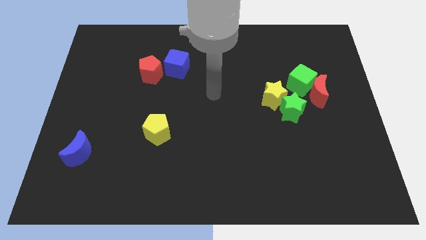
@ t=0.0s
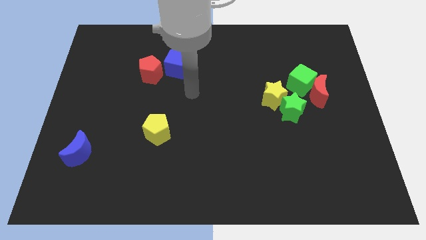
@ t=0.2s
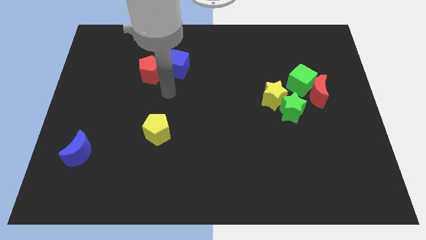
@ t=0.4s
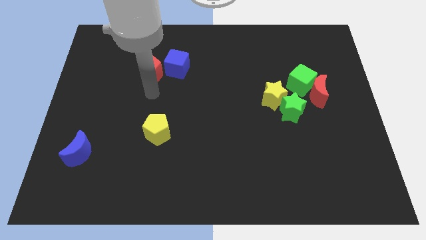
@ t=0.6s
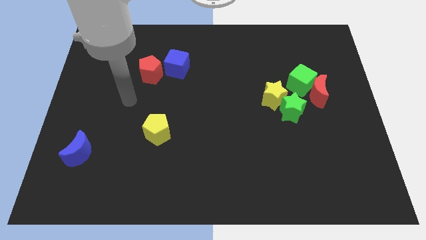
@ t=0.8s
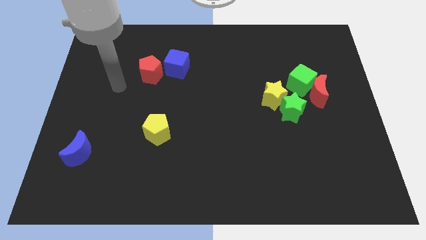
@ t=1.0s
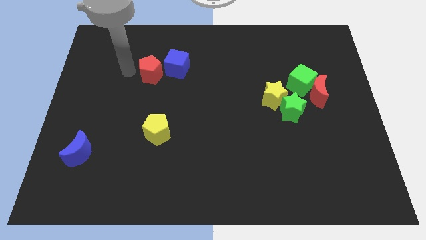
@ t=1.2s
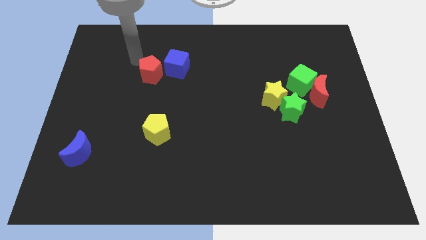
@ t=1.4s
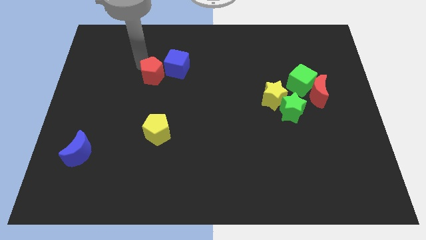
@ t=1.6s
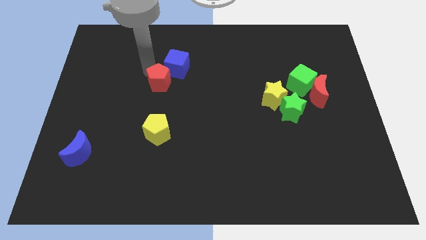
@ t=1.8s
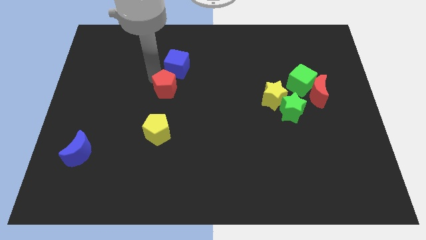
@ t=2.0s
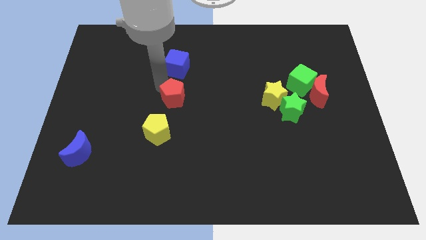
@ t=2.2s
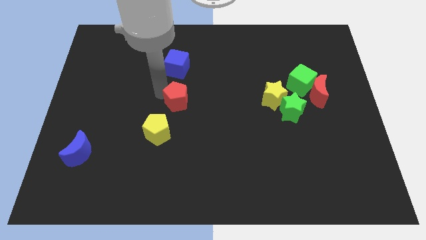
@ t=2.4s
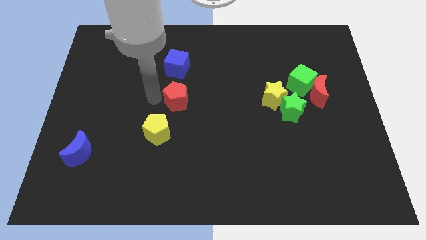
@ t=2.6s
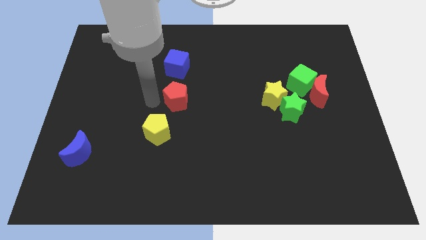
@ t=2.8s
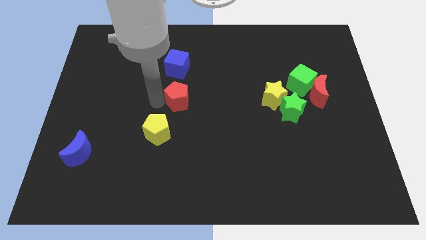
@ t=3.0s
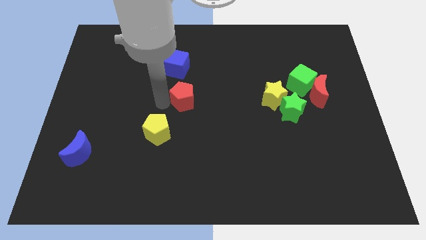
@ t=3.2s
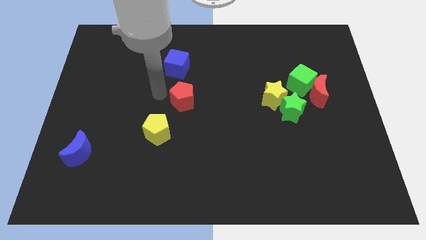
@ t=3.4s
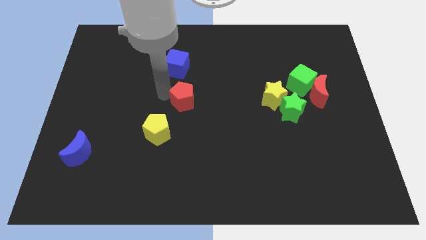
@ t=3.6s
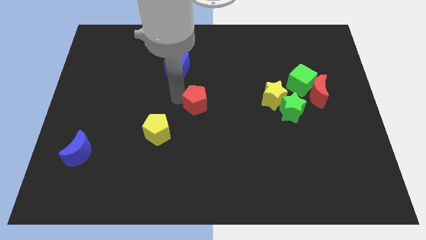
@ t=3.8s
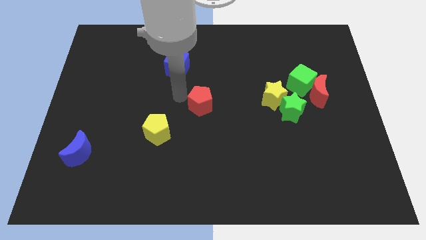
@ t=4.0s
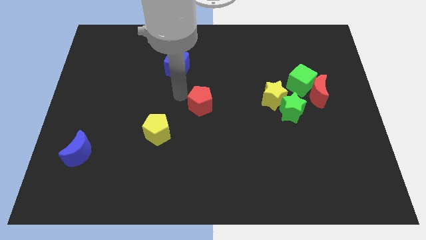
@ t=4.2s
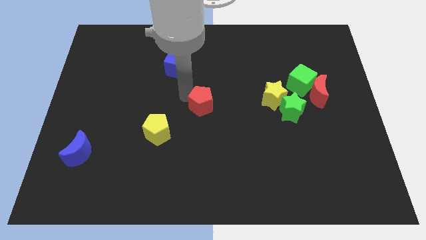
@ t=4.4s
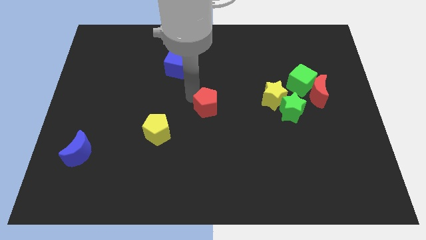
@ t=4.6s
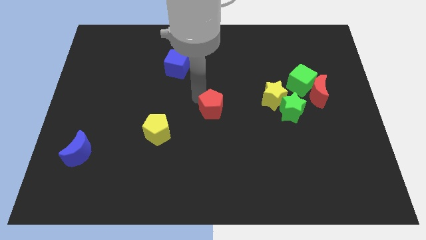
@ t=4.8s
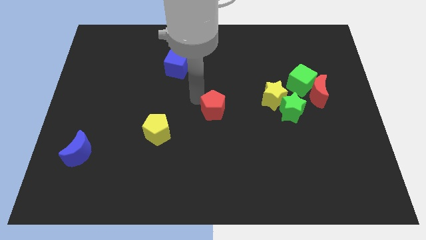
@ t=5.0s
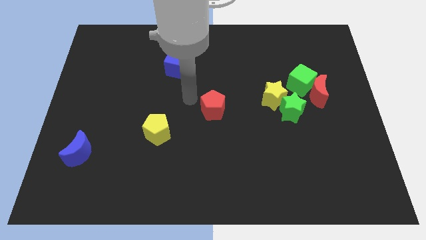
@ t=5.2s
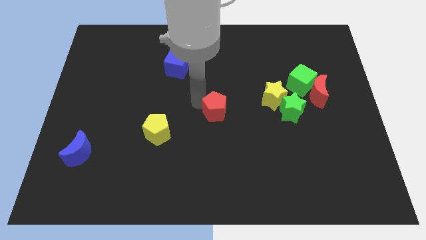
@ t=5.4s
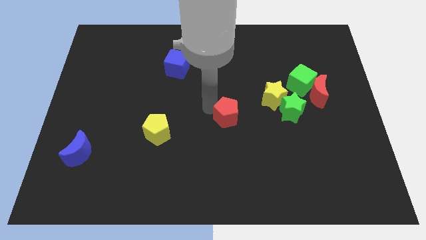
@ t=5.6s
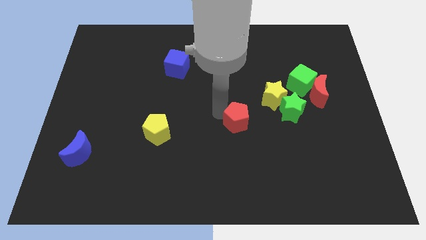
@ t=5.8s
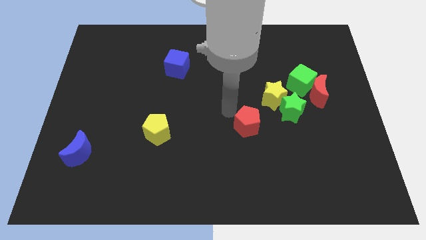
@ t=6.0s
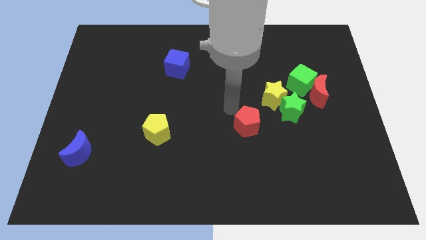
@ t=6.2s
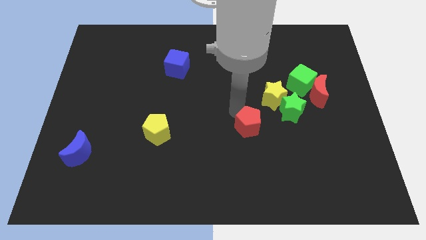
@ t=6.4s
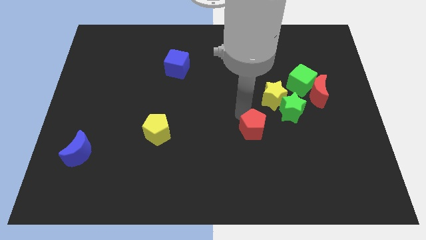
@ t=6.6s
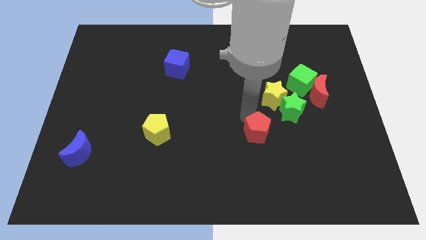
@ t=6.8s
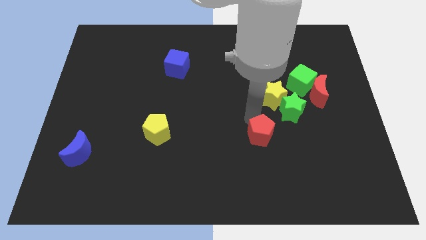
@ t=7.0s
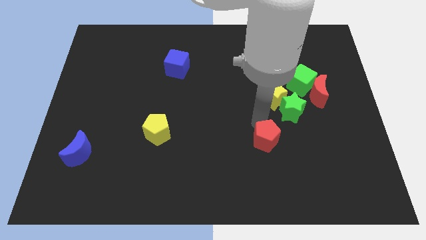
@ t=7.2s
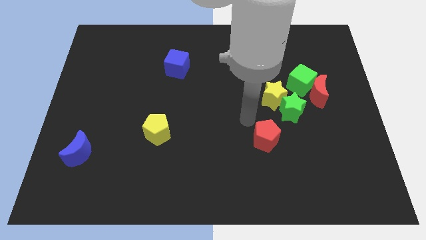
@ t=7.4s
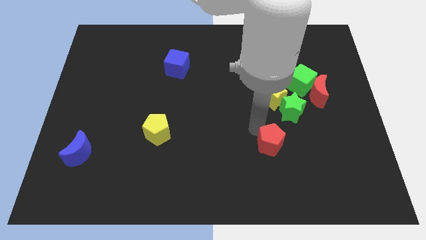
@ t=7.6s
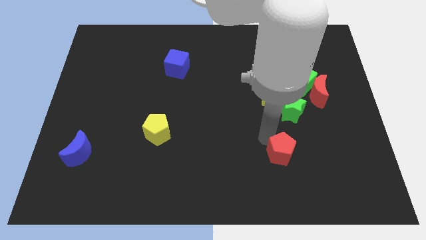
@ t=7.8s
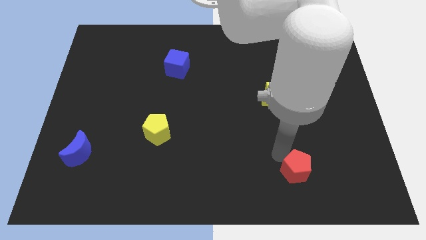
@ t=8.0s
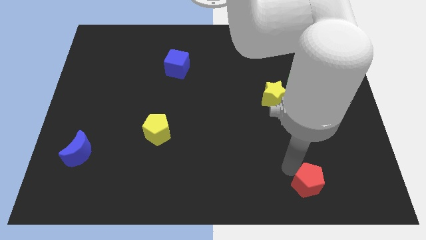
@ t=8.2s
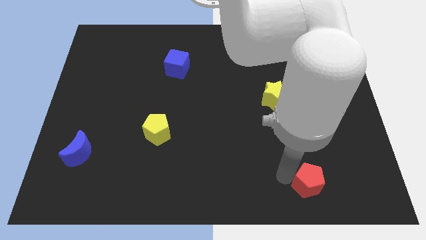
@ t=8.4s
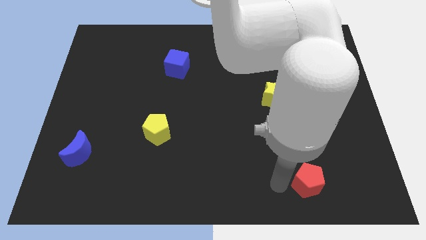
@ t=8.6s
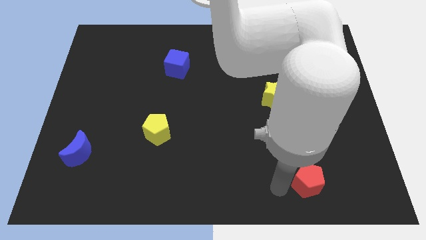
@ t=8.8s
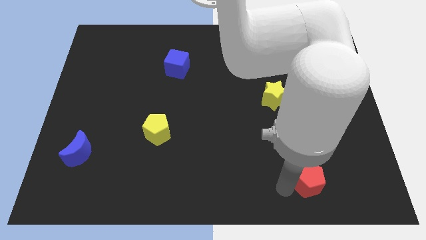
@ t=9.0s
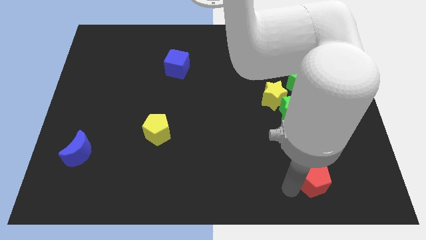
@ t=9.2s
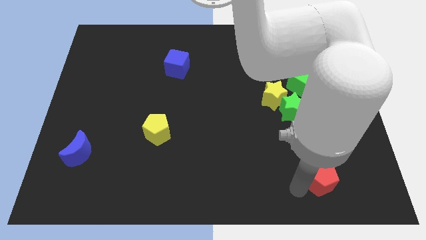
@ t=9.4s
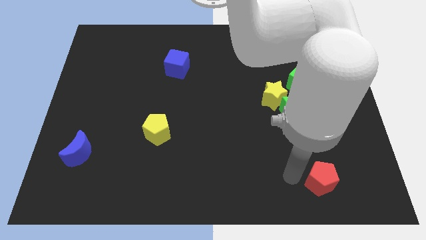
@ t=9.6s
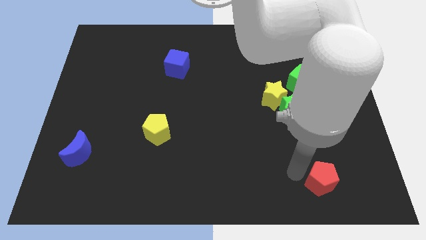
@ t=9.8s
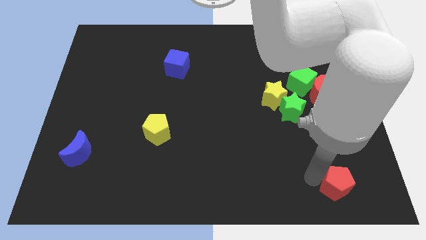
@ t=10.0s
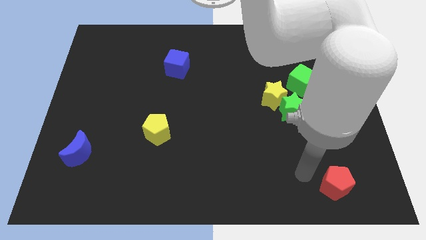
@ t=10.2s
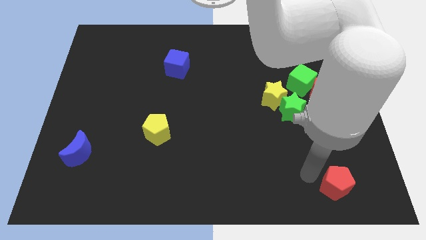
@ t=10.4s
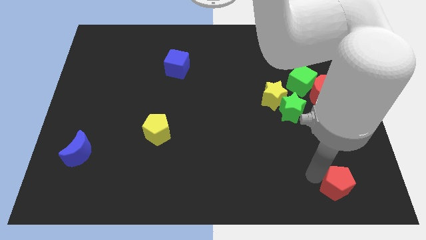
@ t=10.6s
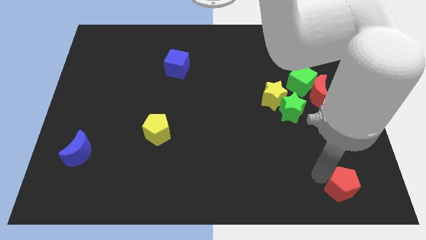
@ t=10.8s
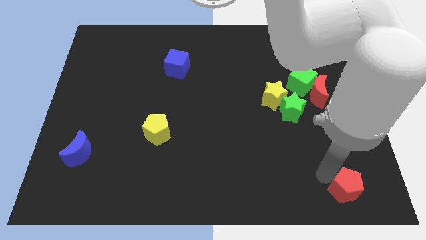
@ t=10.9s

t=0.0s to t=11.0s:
move the red pentagon to the bottom right corner
